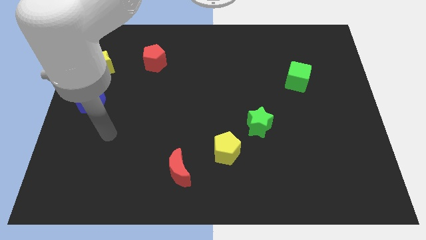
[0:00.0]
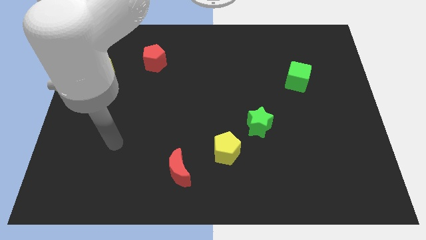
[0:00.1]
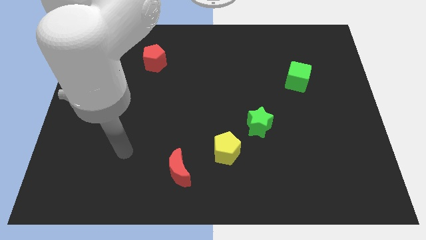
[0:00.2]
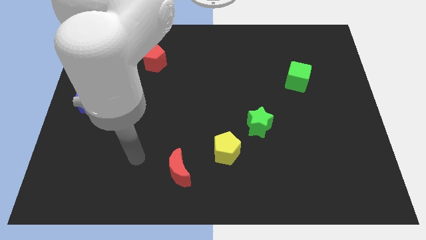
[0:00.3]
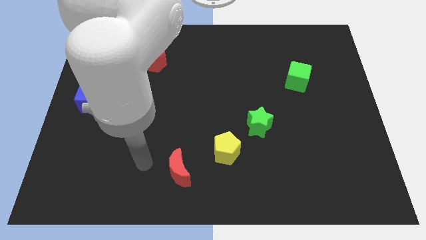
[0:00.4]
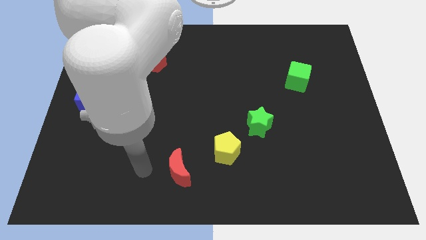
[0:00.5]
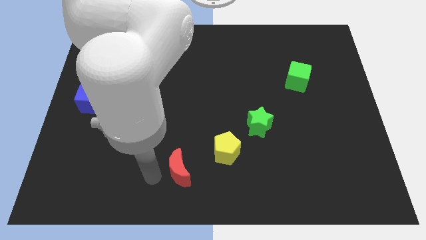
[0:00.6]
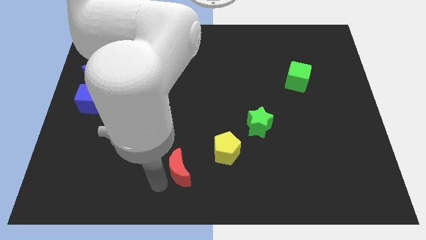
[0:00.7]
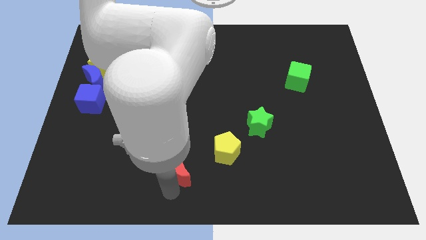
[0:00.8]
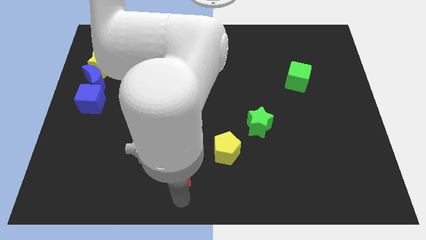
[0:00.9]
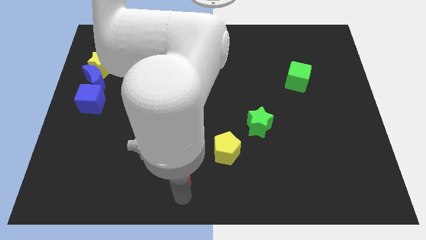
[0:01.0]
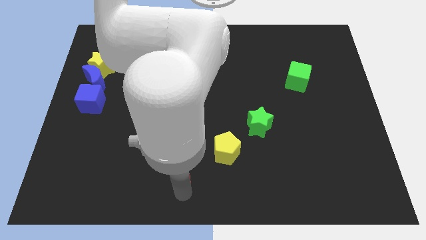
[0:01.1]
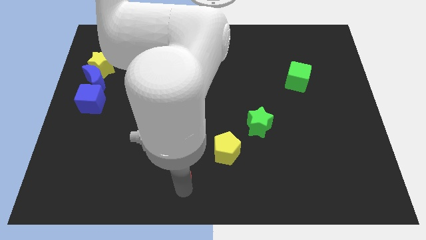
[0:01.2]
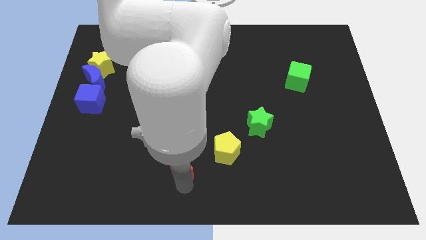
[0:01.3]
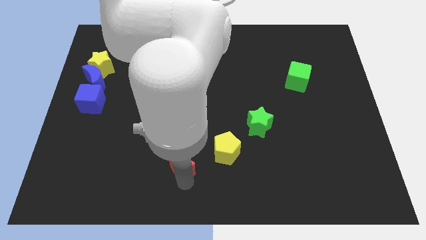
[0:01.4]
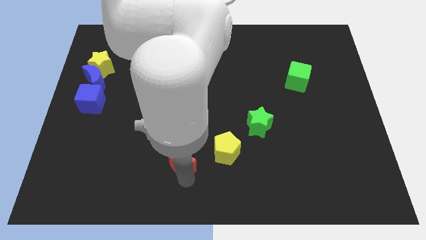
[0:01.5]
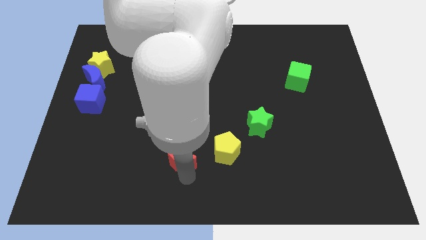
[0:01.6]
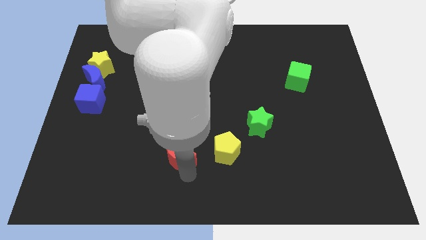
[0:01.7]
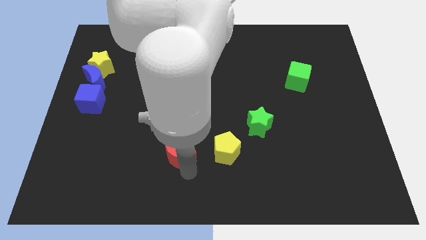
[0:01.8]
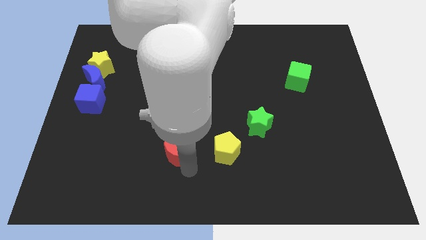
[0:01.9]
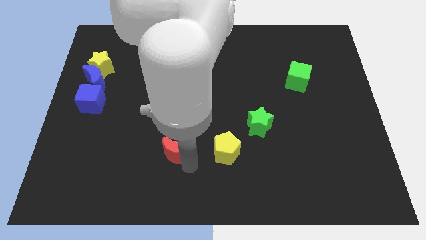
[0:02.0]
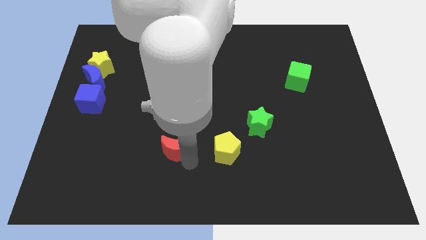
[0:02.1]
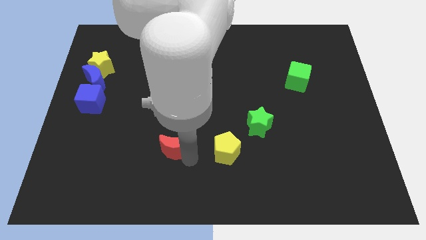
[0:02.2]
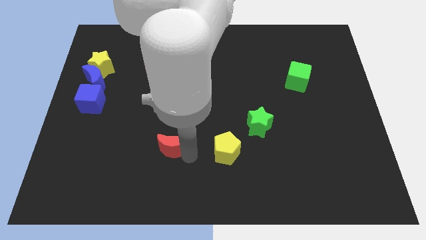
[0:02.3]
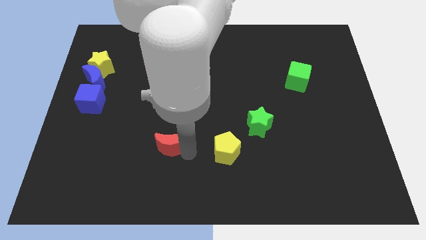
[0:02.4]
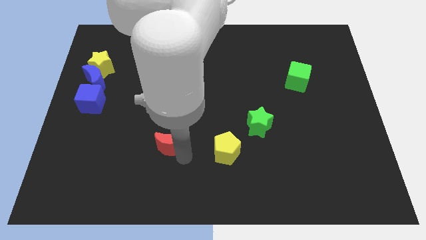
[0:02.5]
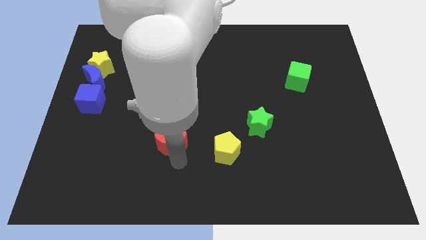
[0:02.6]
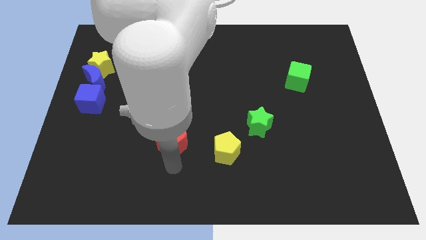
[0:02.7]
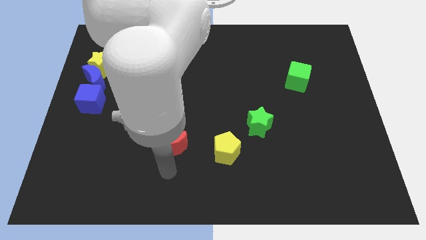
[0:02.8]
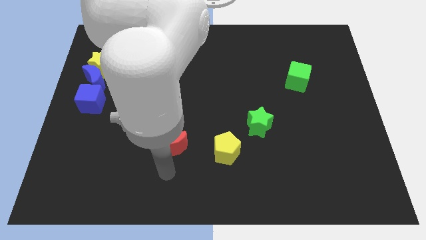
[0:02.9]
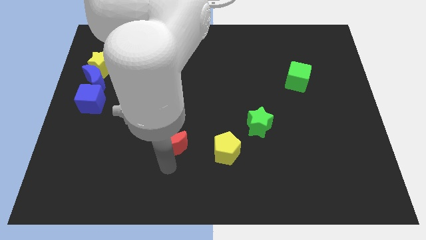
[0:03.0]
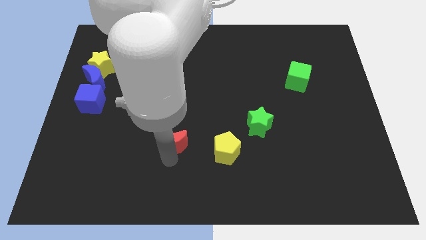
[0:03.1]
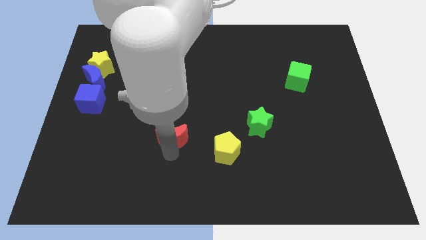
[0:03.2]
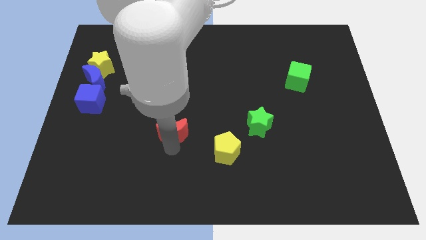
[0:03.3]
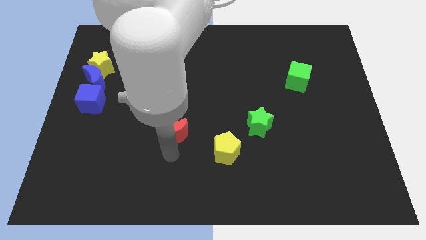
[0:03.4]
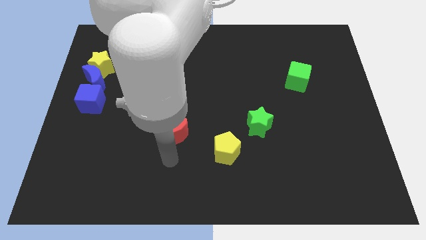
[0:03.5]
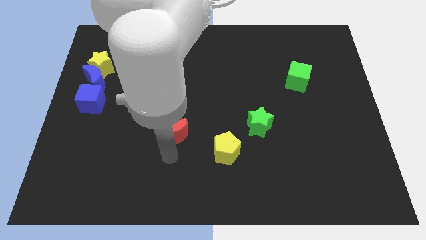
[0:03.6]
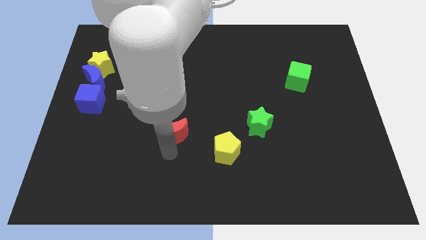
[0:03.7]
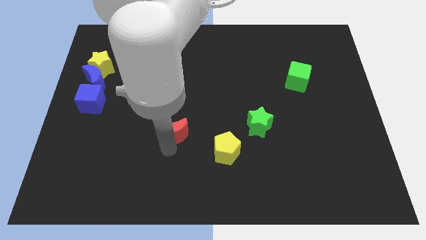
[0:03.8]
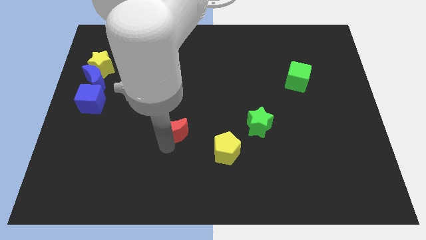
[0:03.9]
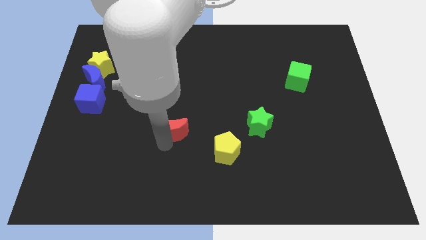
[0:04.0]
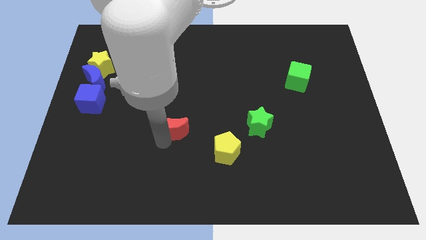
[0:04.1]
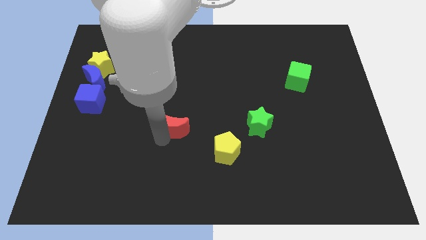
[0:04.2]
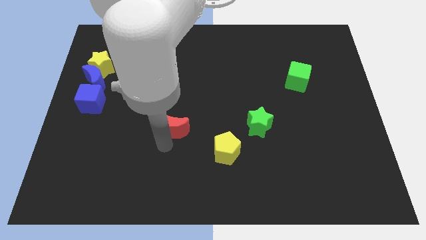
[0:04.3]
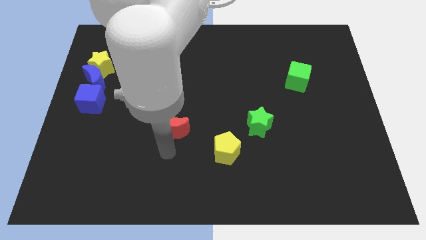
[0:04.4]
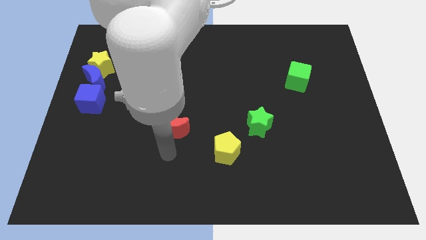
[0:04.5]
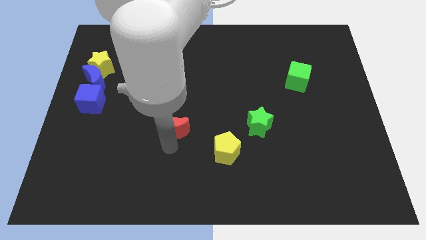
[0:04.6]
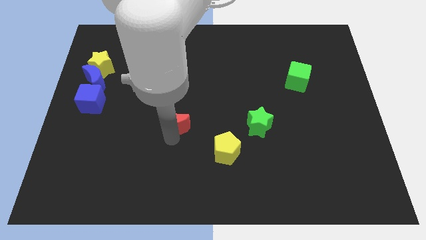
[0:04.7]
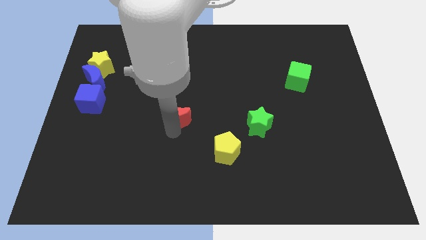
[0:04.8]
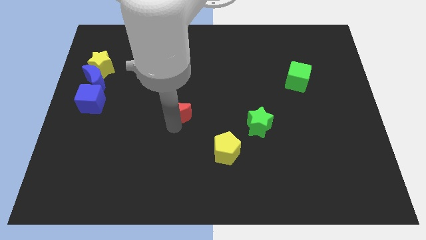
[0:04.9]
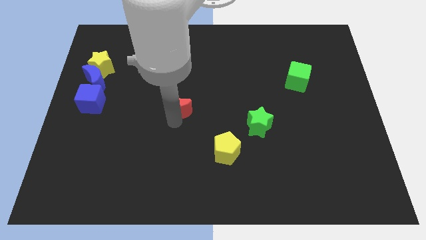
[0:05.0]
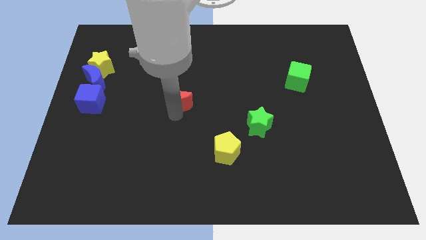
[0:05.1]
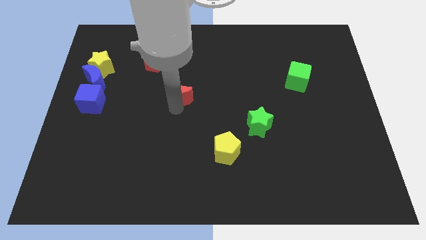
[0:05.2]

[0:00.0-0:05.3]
slide the red moon upwards

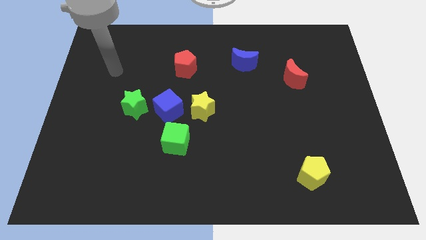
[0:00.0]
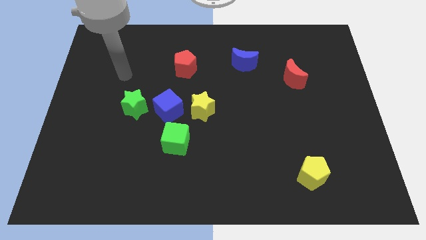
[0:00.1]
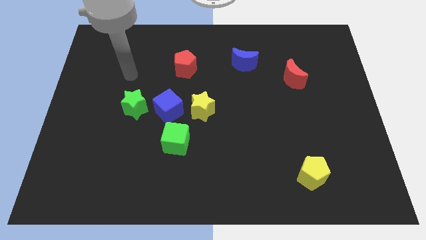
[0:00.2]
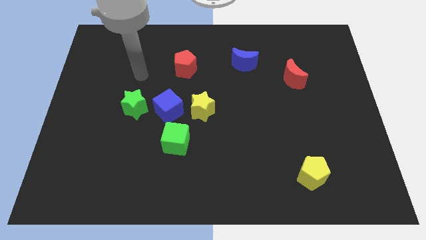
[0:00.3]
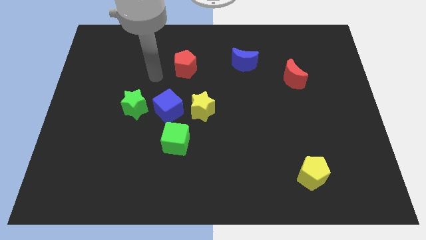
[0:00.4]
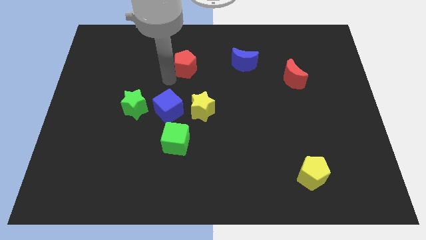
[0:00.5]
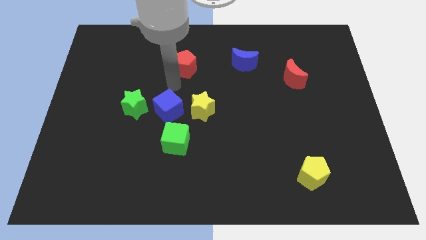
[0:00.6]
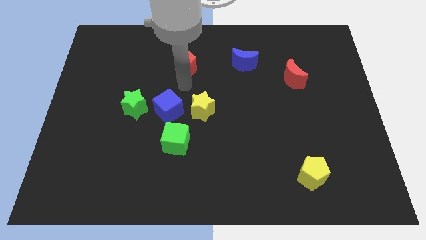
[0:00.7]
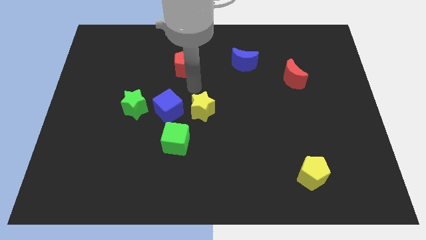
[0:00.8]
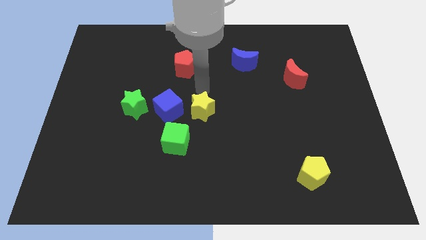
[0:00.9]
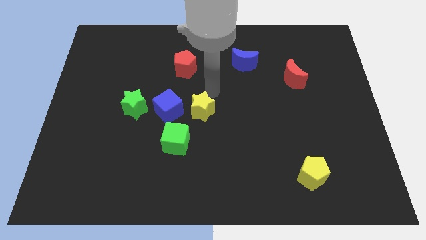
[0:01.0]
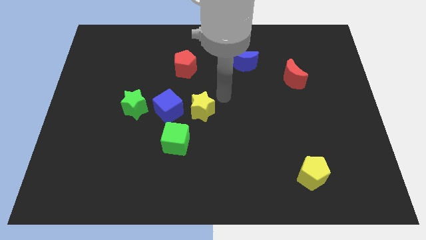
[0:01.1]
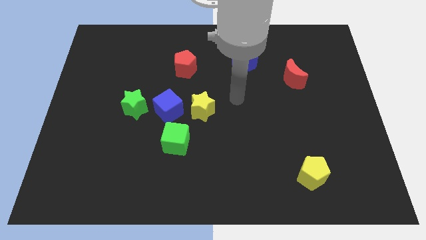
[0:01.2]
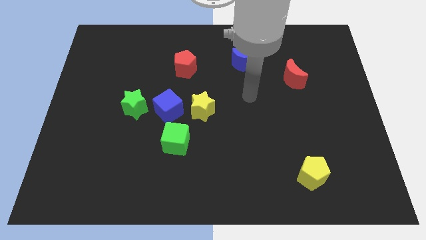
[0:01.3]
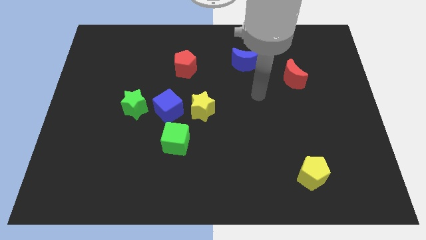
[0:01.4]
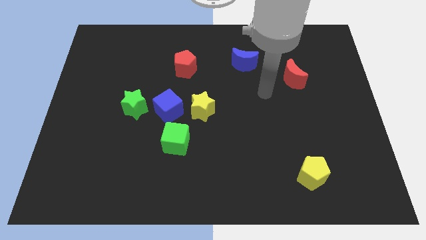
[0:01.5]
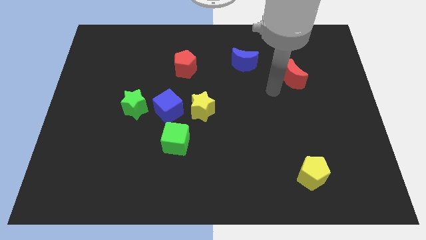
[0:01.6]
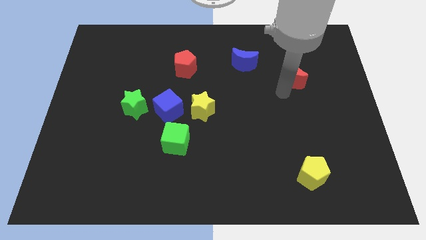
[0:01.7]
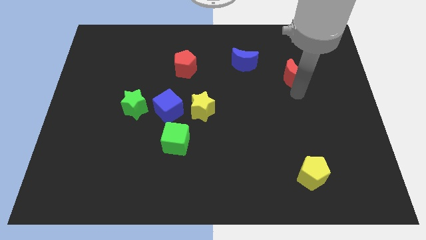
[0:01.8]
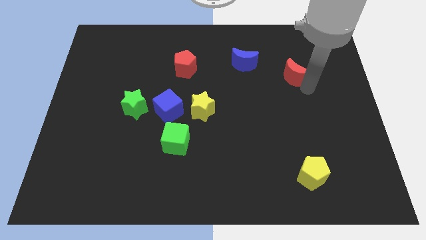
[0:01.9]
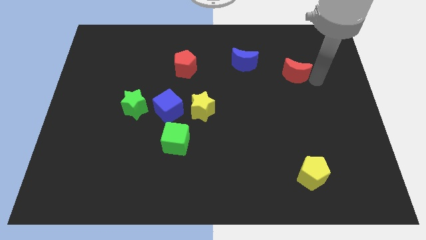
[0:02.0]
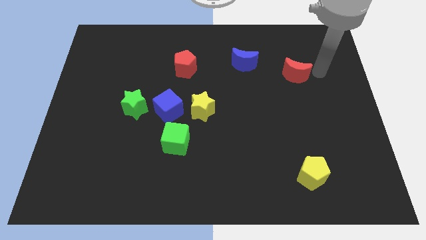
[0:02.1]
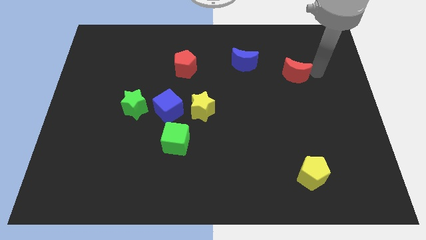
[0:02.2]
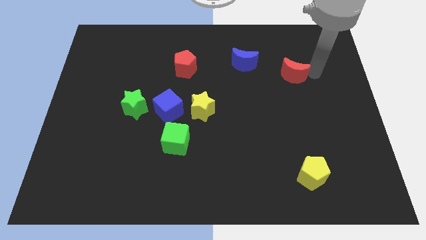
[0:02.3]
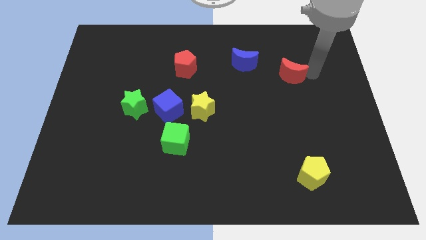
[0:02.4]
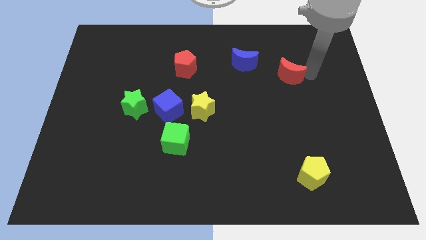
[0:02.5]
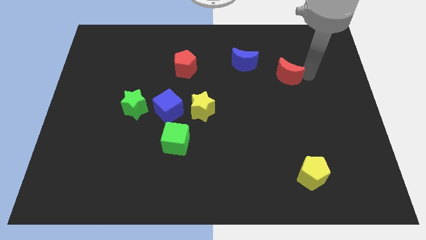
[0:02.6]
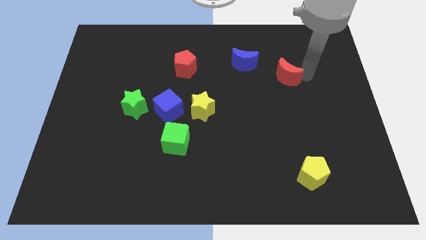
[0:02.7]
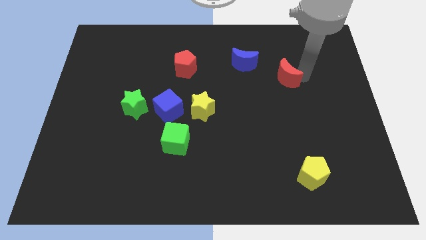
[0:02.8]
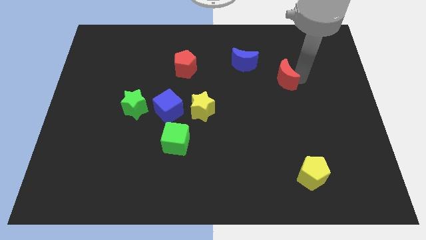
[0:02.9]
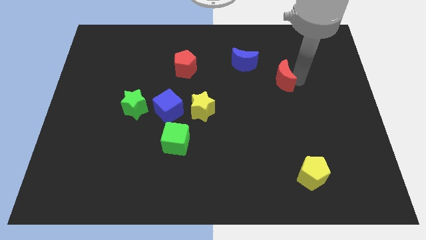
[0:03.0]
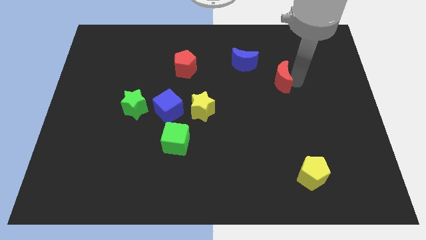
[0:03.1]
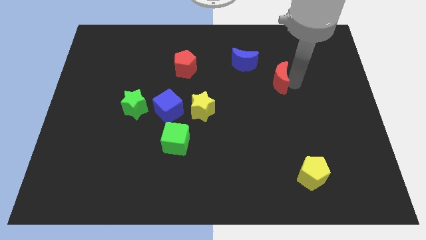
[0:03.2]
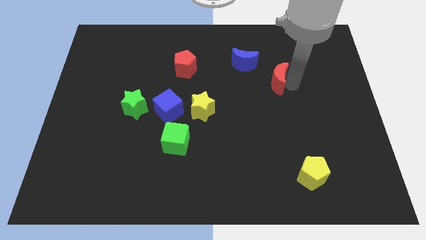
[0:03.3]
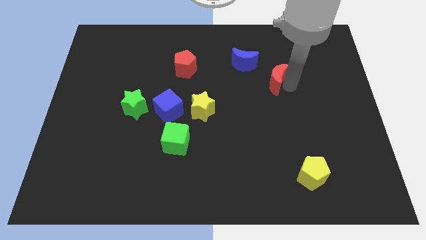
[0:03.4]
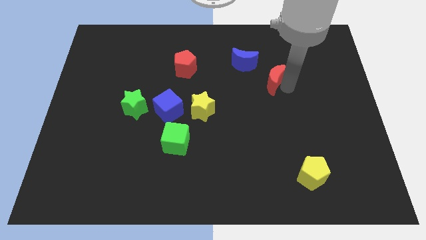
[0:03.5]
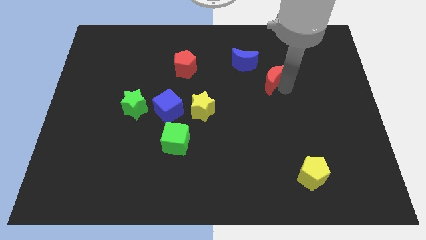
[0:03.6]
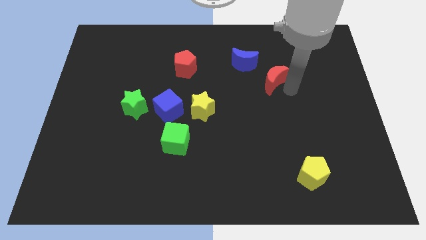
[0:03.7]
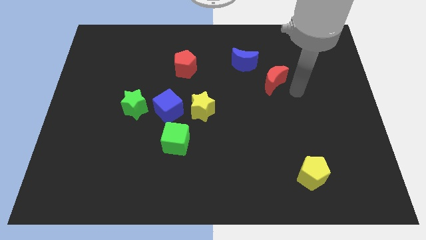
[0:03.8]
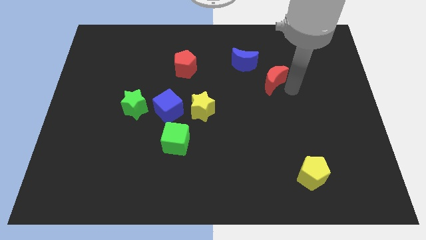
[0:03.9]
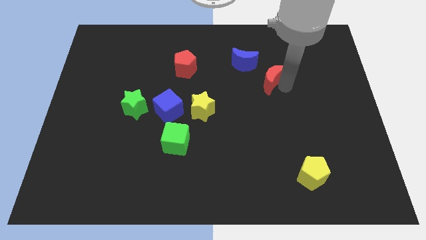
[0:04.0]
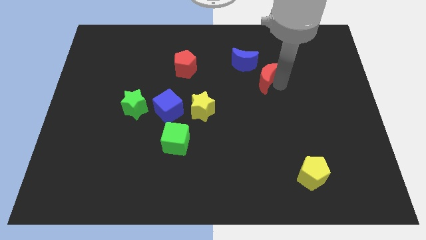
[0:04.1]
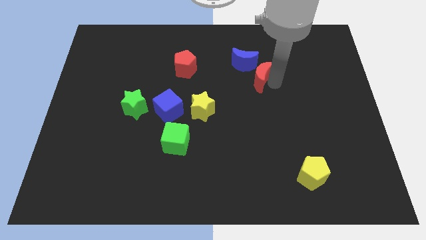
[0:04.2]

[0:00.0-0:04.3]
move the red moon left slightly
